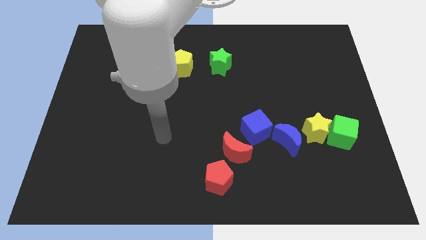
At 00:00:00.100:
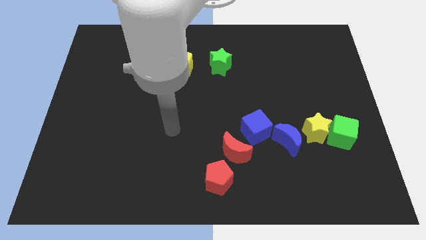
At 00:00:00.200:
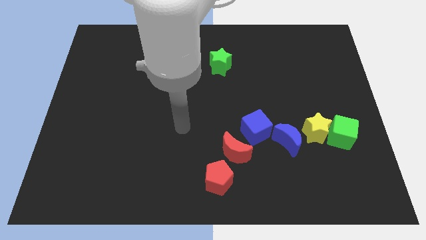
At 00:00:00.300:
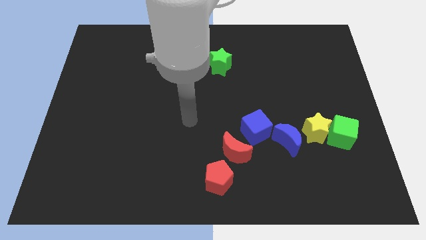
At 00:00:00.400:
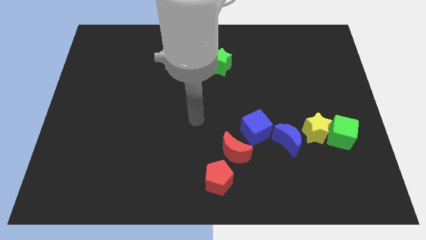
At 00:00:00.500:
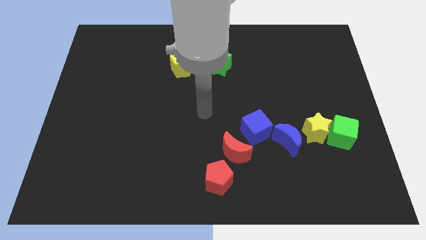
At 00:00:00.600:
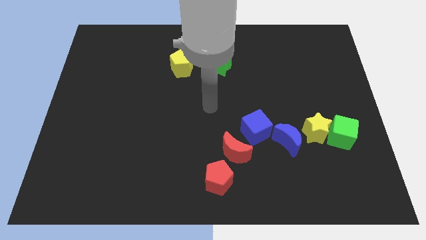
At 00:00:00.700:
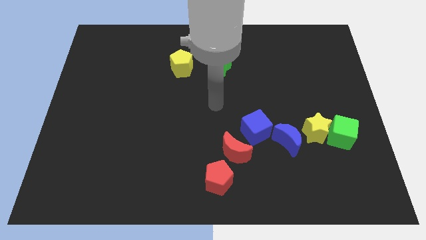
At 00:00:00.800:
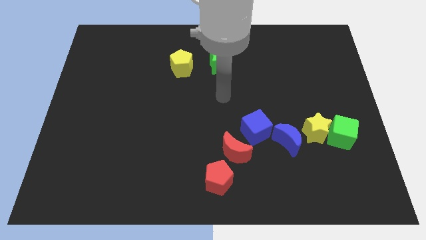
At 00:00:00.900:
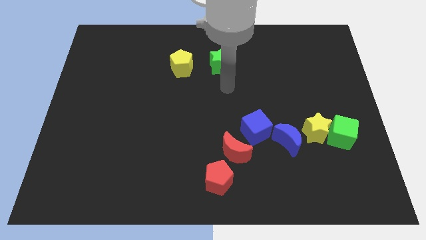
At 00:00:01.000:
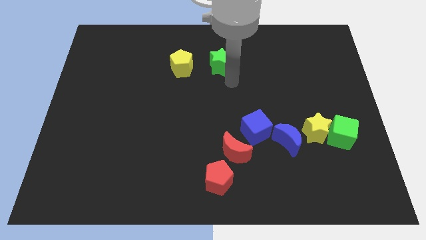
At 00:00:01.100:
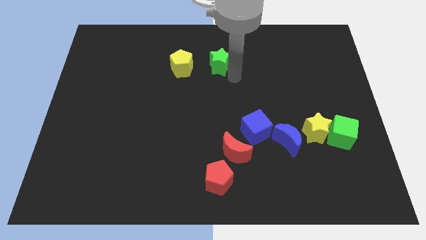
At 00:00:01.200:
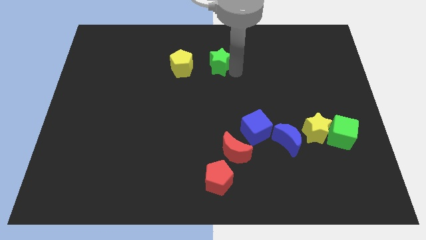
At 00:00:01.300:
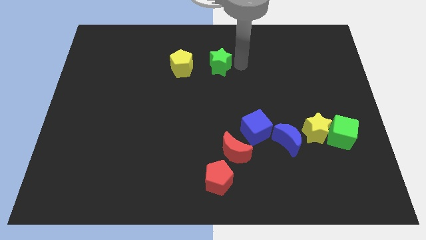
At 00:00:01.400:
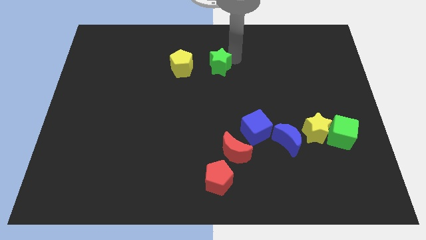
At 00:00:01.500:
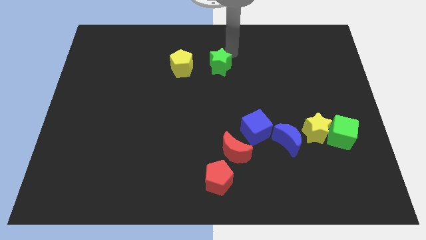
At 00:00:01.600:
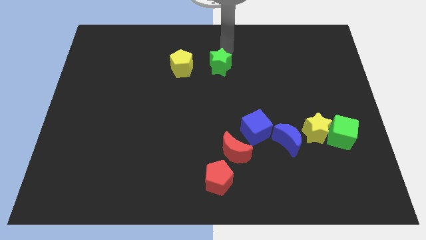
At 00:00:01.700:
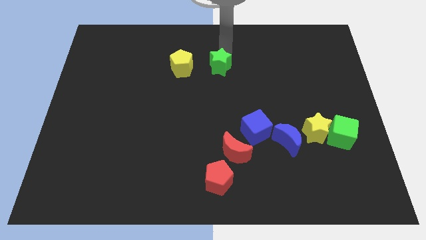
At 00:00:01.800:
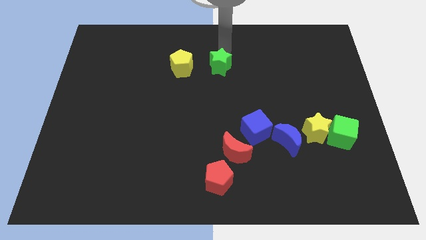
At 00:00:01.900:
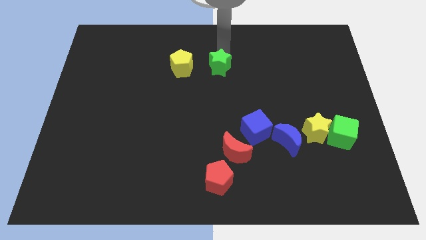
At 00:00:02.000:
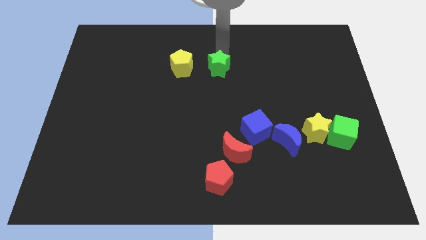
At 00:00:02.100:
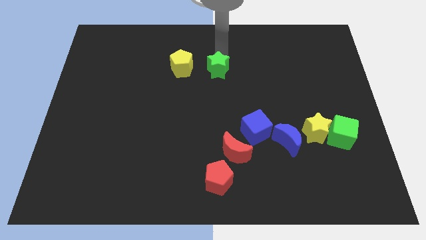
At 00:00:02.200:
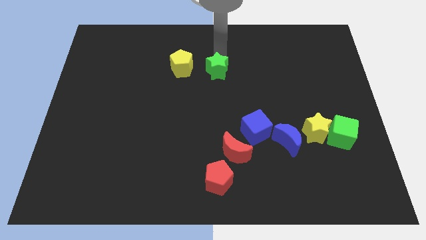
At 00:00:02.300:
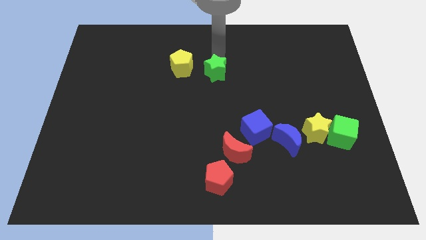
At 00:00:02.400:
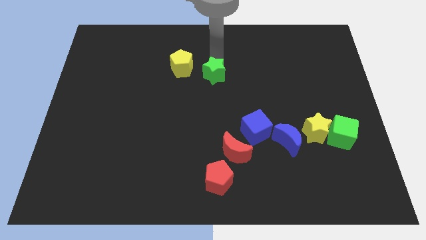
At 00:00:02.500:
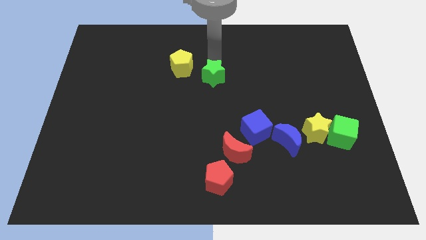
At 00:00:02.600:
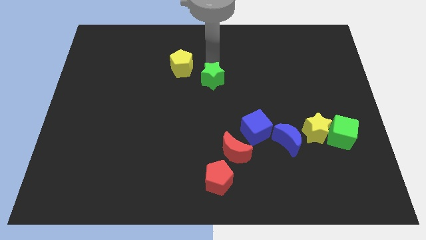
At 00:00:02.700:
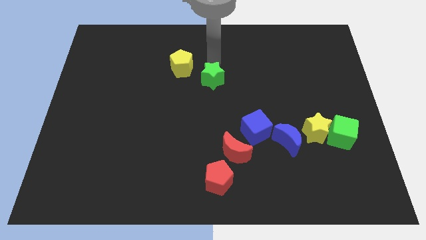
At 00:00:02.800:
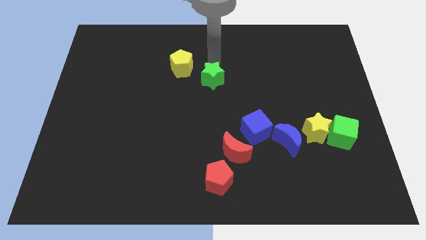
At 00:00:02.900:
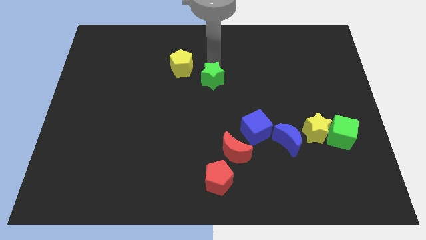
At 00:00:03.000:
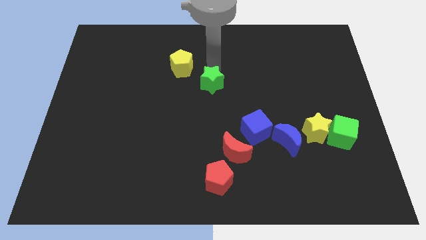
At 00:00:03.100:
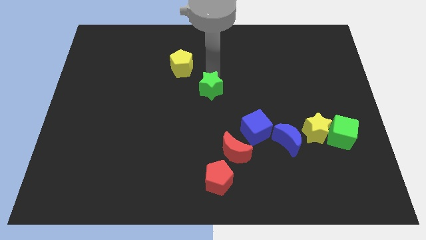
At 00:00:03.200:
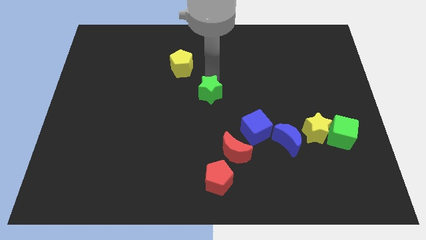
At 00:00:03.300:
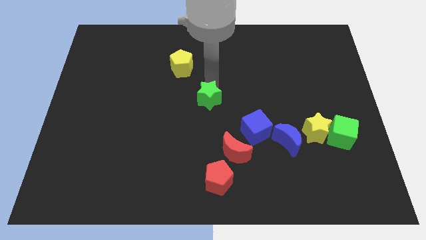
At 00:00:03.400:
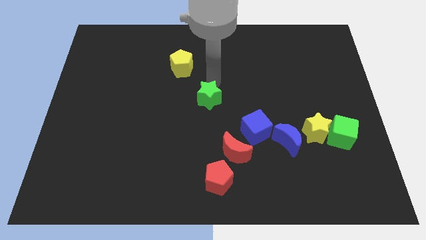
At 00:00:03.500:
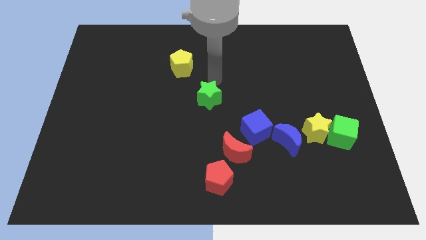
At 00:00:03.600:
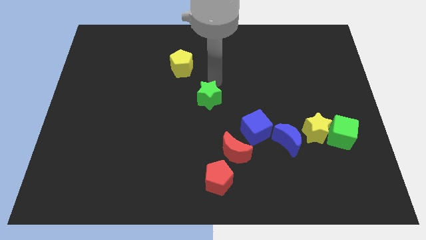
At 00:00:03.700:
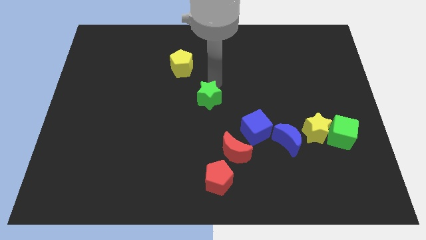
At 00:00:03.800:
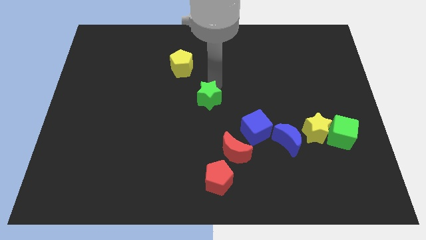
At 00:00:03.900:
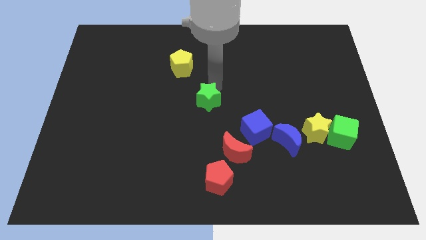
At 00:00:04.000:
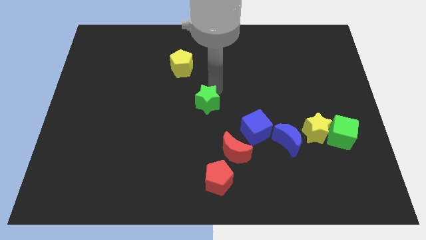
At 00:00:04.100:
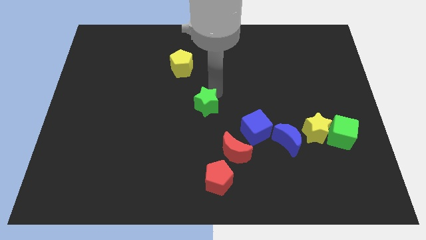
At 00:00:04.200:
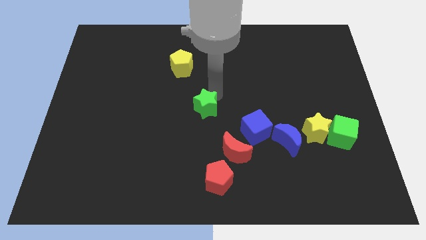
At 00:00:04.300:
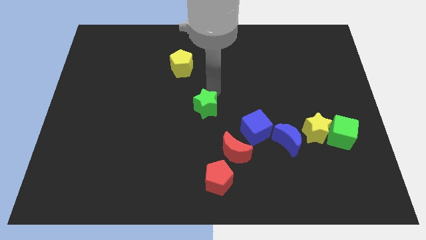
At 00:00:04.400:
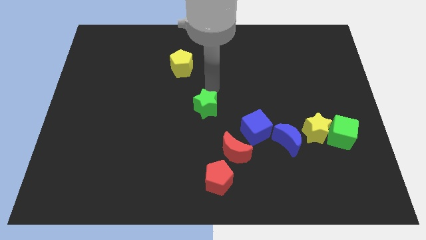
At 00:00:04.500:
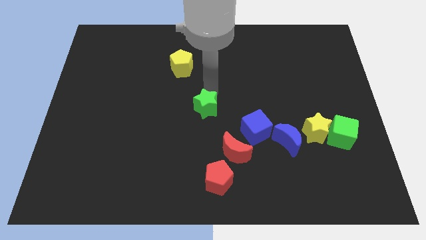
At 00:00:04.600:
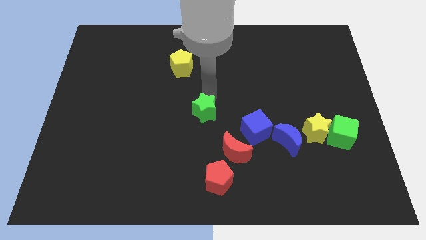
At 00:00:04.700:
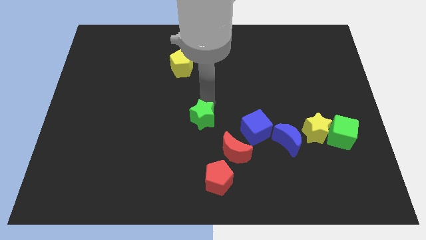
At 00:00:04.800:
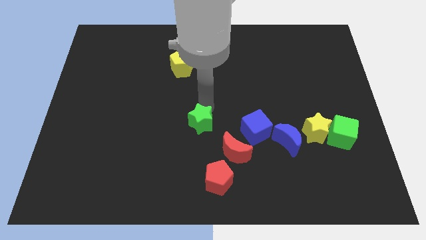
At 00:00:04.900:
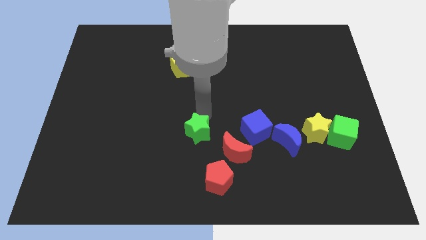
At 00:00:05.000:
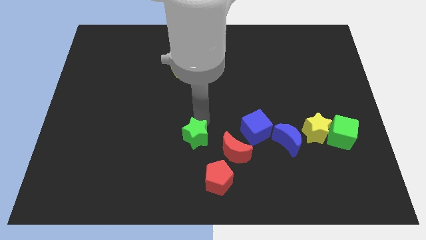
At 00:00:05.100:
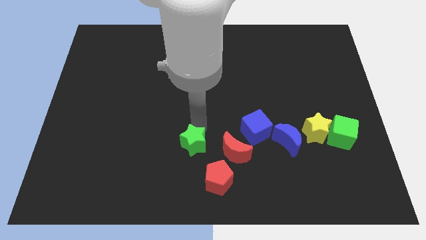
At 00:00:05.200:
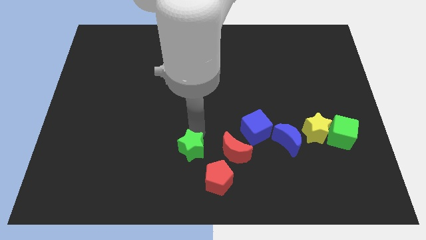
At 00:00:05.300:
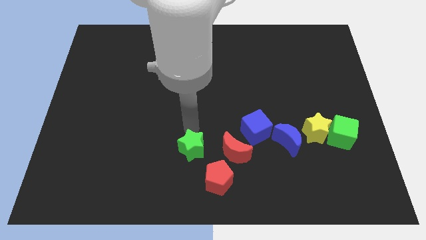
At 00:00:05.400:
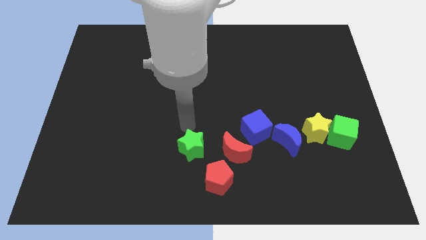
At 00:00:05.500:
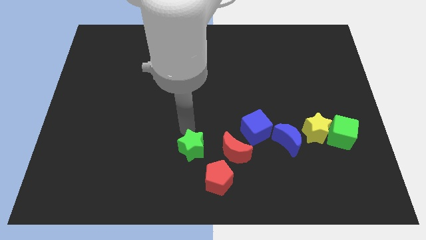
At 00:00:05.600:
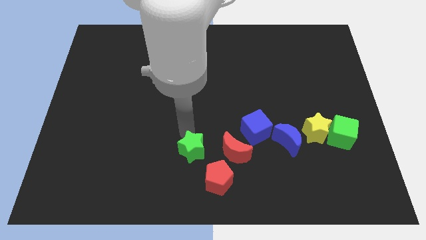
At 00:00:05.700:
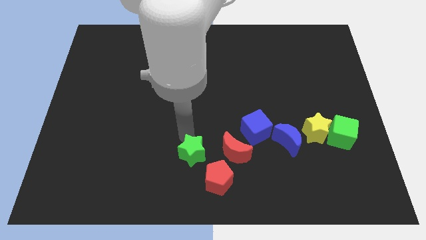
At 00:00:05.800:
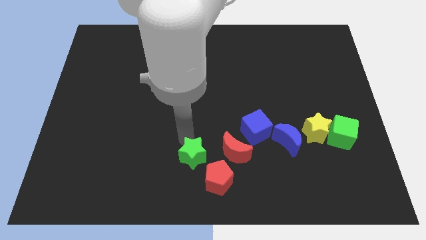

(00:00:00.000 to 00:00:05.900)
slide the green star to the bottom
